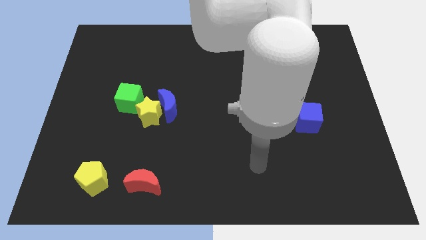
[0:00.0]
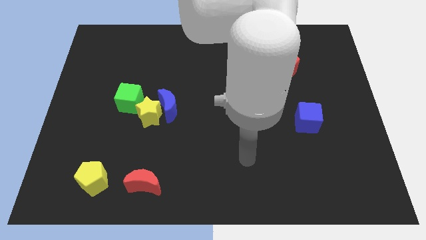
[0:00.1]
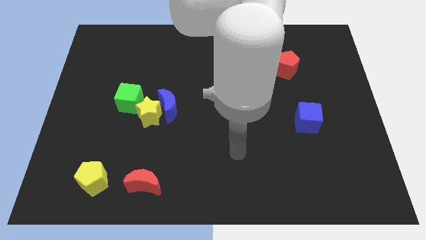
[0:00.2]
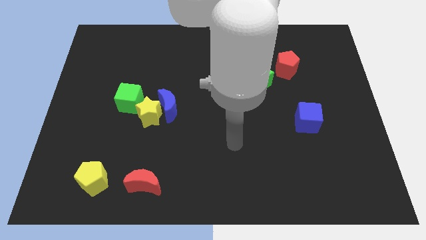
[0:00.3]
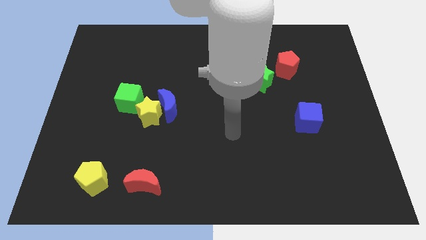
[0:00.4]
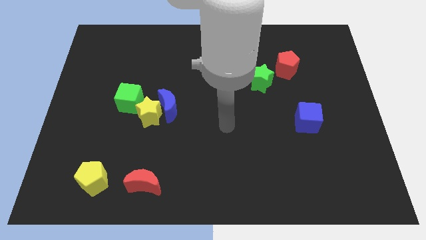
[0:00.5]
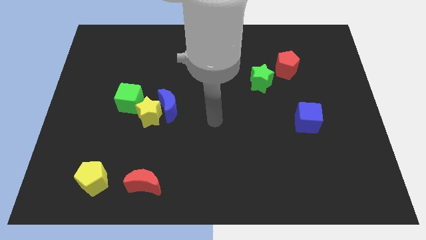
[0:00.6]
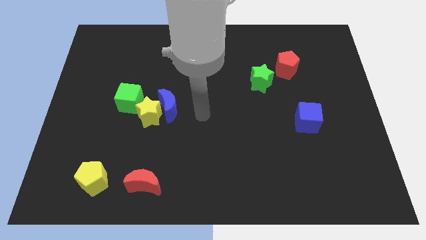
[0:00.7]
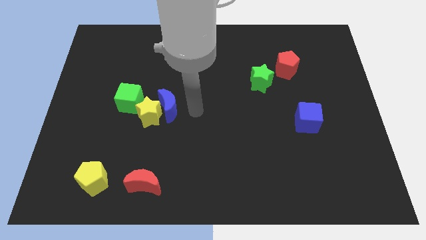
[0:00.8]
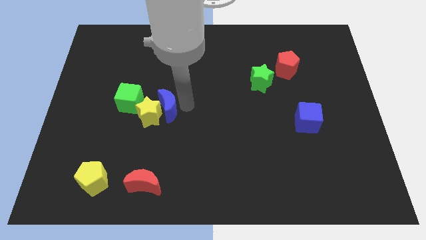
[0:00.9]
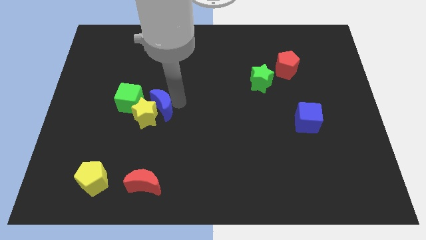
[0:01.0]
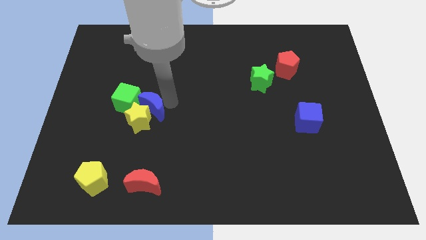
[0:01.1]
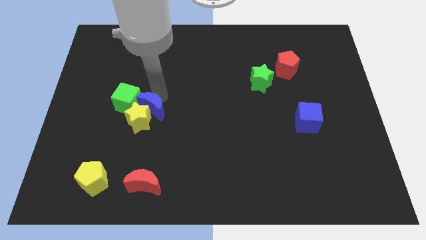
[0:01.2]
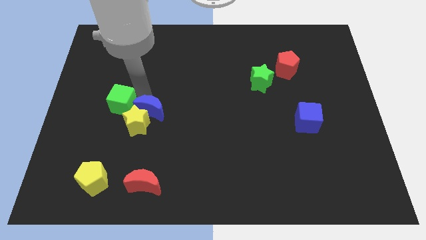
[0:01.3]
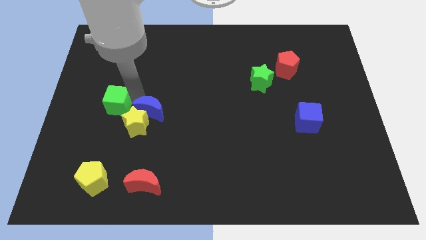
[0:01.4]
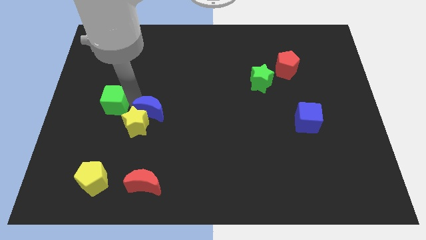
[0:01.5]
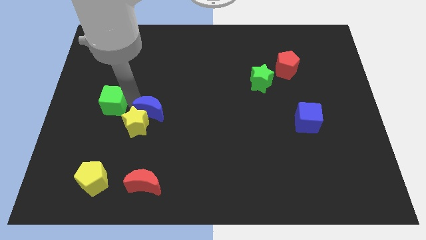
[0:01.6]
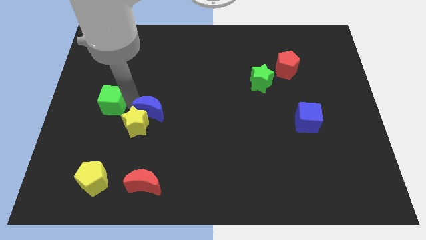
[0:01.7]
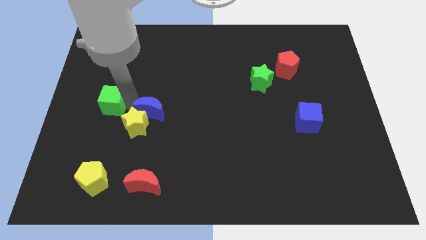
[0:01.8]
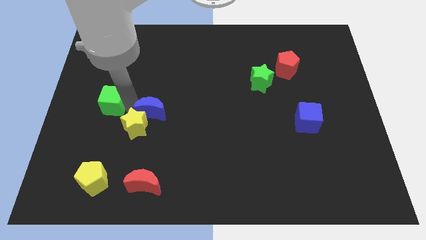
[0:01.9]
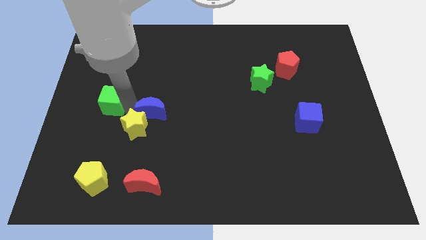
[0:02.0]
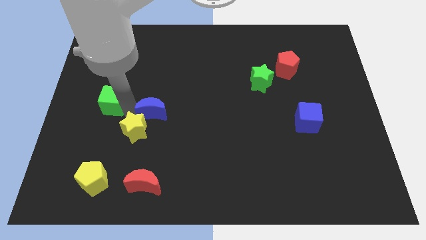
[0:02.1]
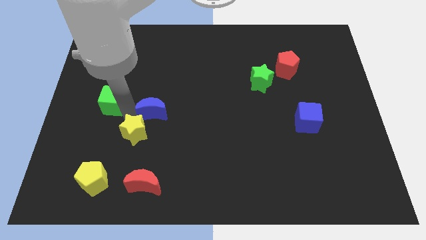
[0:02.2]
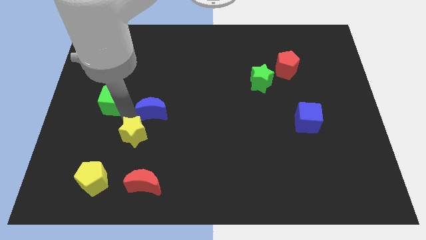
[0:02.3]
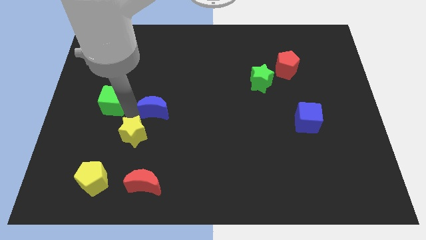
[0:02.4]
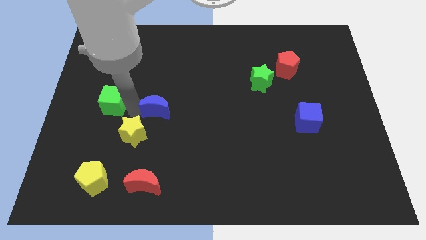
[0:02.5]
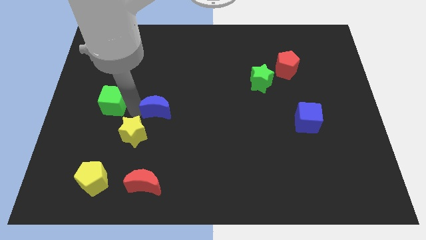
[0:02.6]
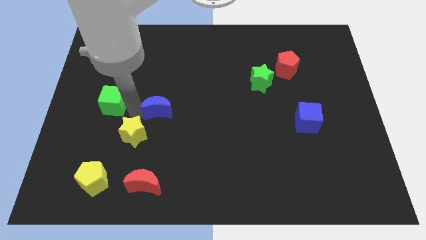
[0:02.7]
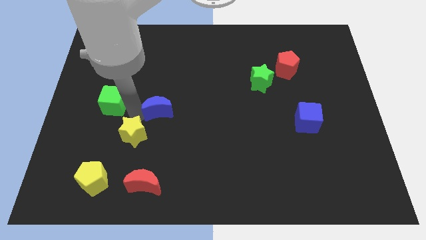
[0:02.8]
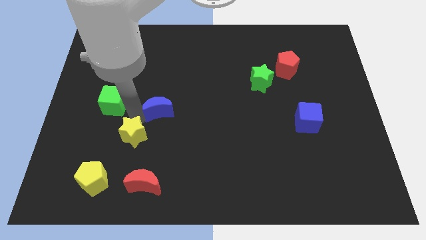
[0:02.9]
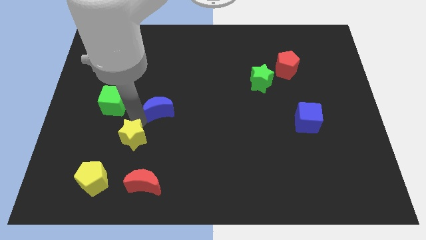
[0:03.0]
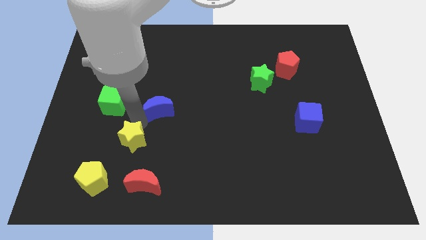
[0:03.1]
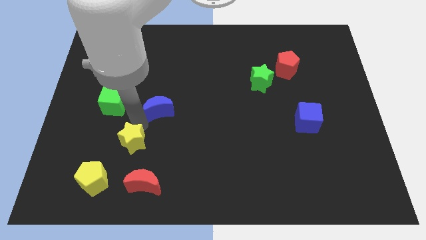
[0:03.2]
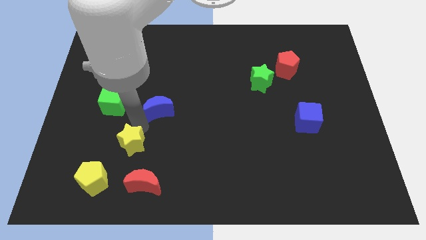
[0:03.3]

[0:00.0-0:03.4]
move the yellow star away from the blue moon and green cube

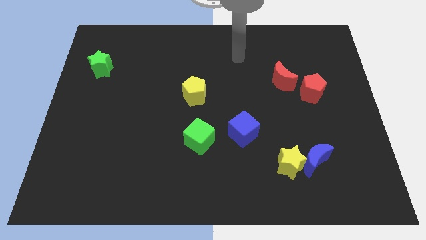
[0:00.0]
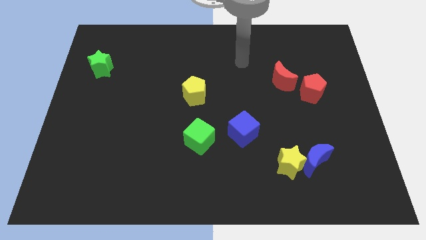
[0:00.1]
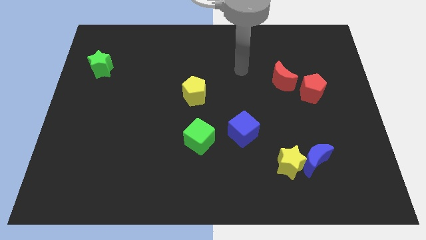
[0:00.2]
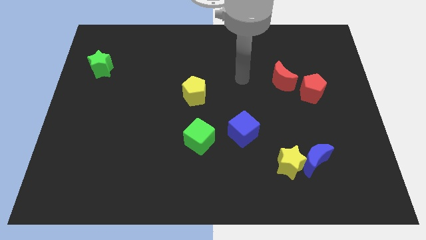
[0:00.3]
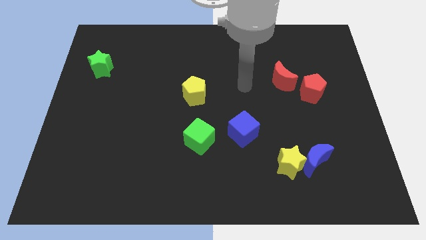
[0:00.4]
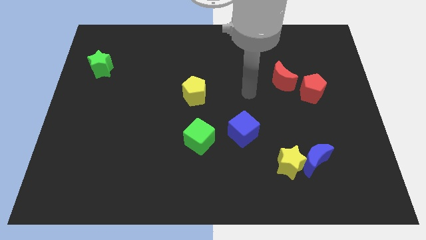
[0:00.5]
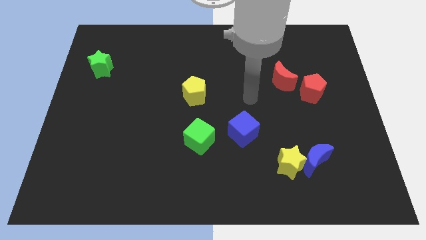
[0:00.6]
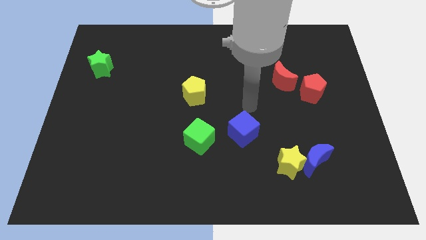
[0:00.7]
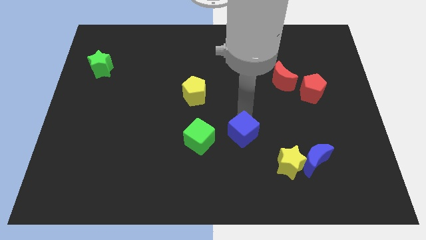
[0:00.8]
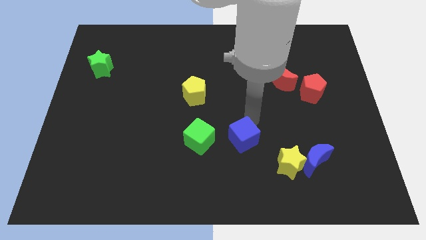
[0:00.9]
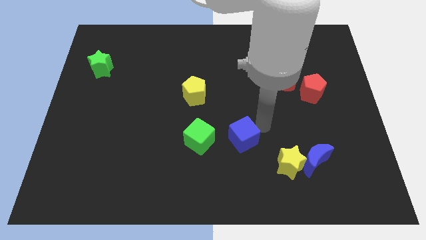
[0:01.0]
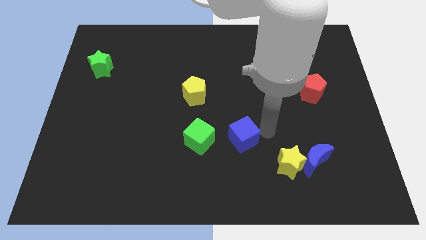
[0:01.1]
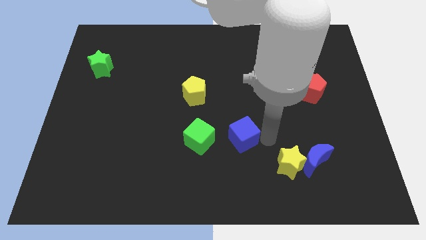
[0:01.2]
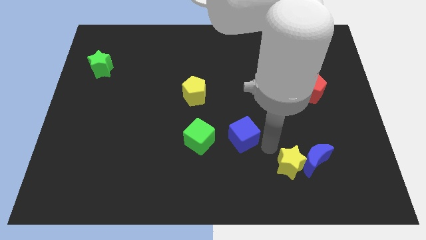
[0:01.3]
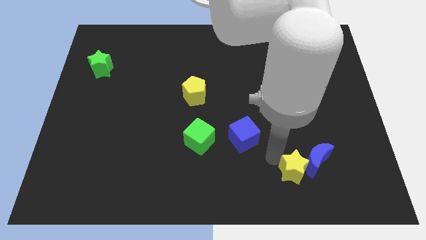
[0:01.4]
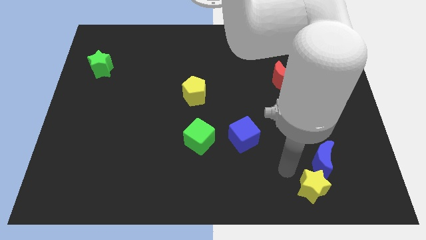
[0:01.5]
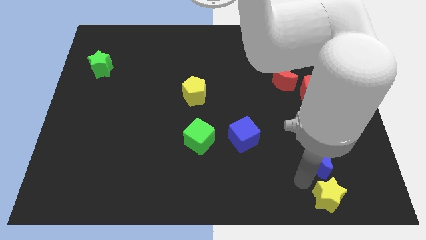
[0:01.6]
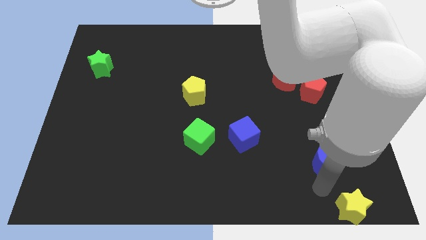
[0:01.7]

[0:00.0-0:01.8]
separate the blue moon from the yellow star

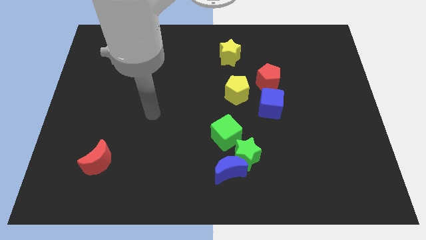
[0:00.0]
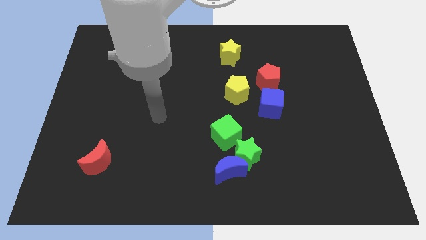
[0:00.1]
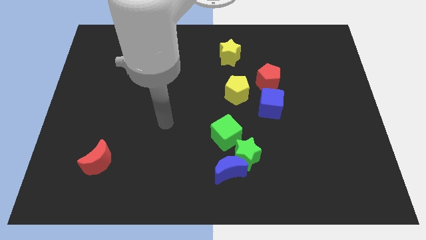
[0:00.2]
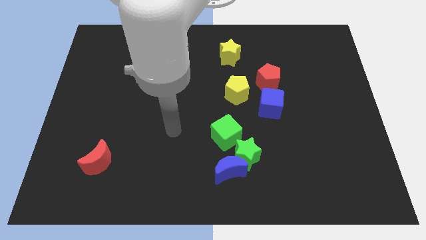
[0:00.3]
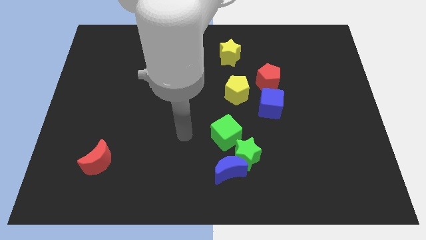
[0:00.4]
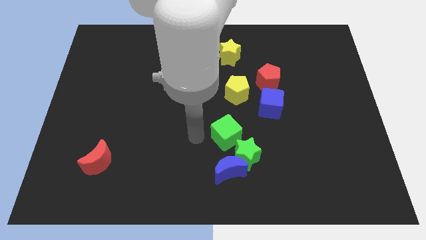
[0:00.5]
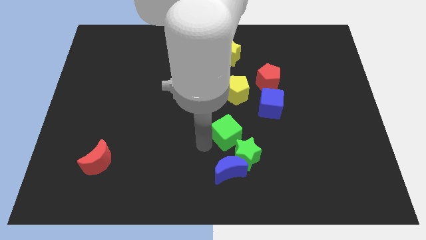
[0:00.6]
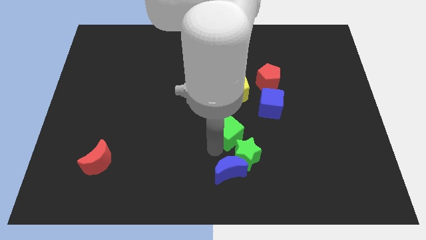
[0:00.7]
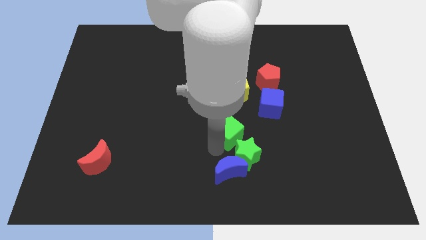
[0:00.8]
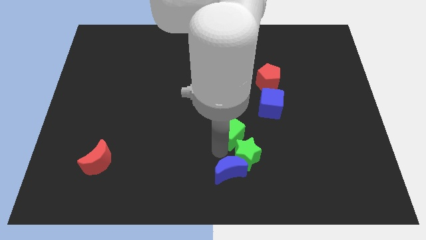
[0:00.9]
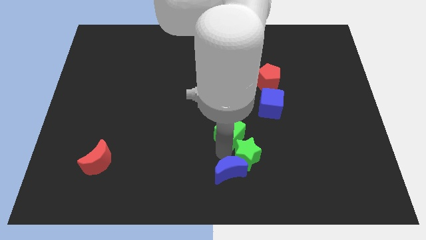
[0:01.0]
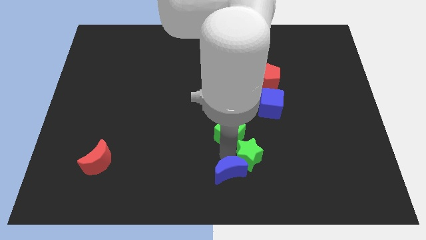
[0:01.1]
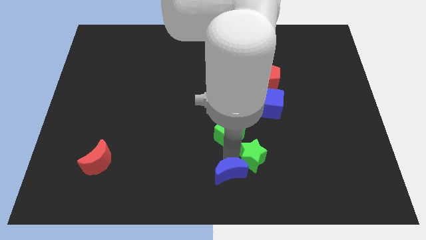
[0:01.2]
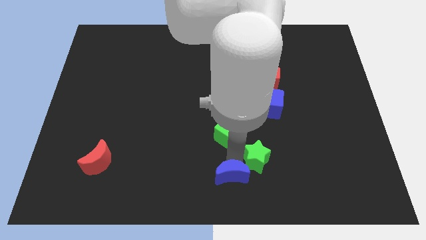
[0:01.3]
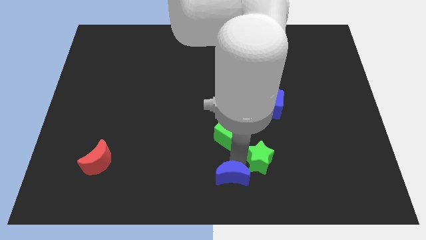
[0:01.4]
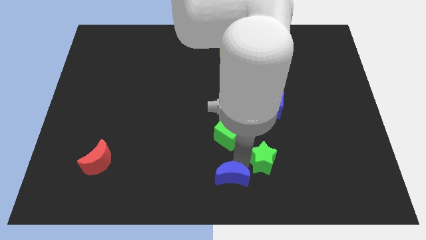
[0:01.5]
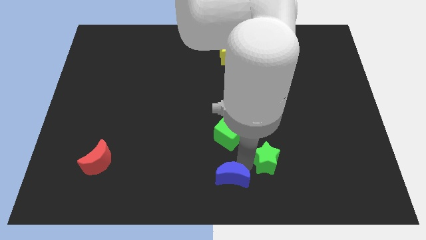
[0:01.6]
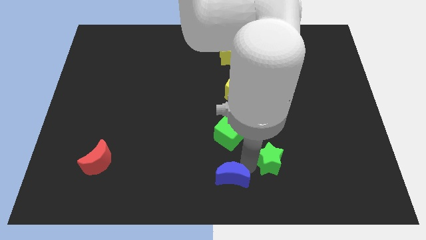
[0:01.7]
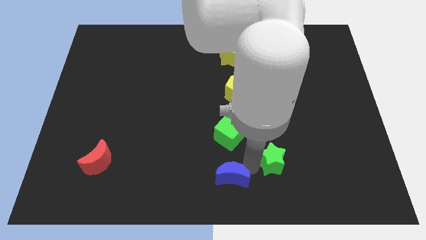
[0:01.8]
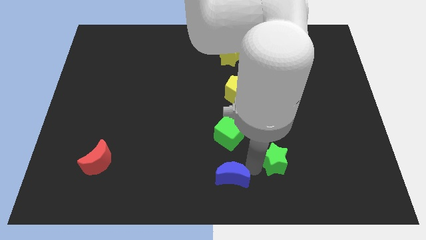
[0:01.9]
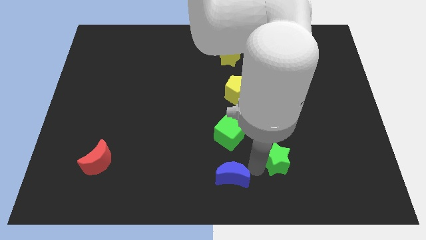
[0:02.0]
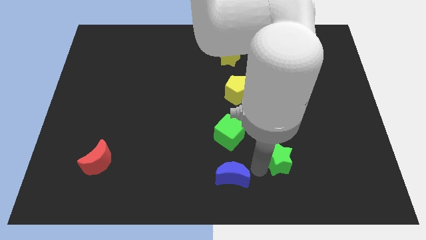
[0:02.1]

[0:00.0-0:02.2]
separate the green star from the blue moon and green cube

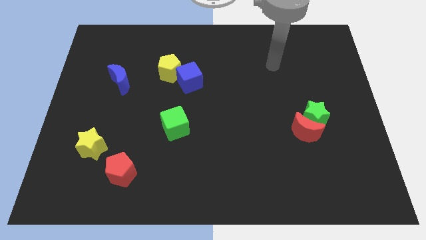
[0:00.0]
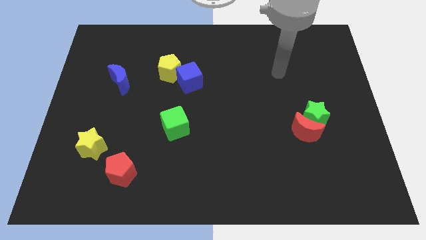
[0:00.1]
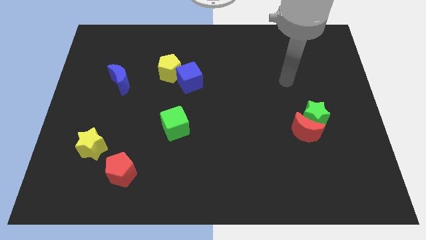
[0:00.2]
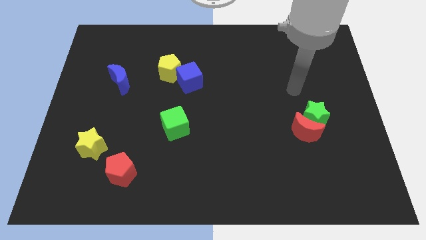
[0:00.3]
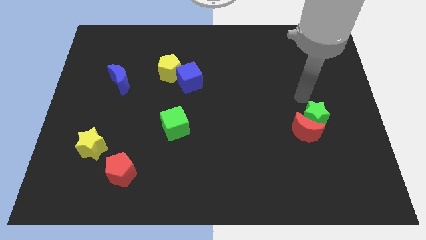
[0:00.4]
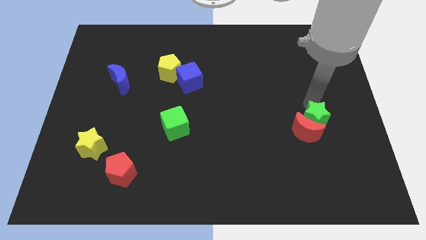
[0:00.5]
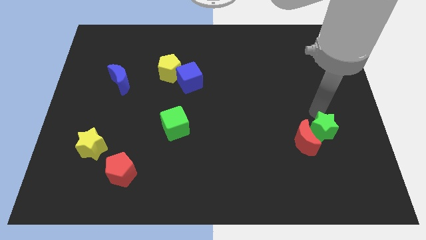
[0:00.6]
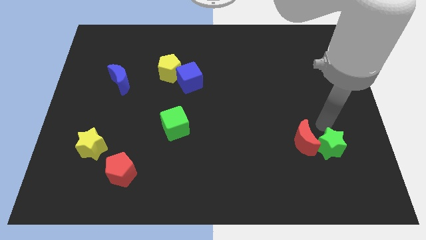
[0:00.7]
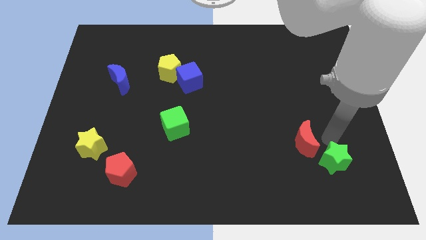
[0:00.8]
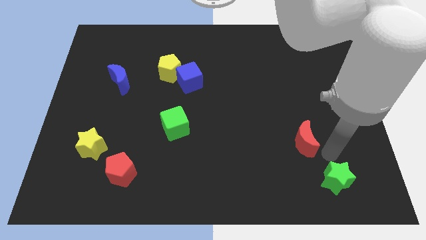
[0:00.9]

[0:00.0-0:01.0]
separate the red moon from the green star

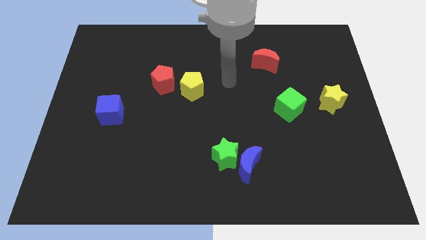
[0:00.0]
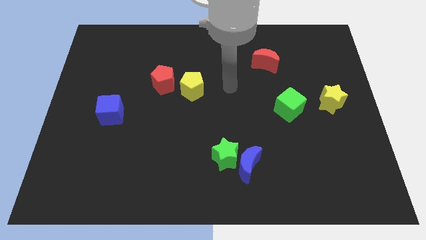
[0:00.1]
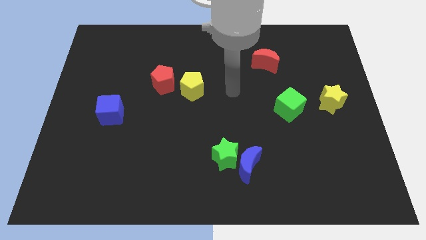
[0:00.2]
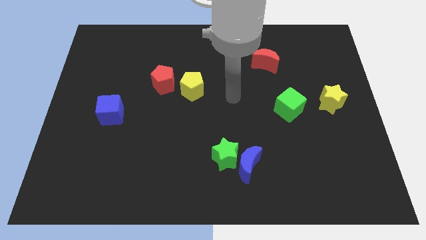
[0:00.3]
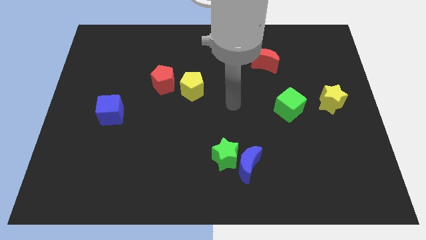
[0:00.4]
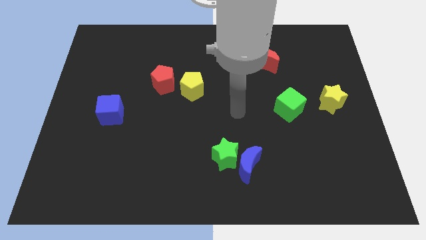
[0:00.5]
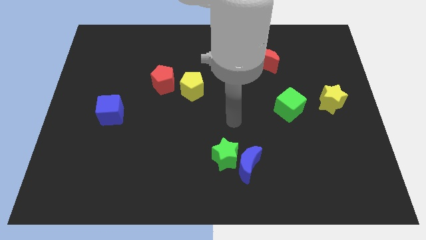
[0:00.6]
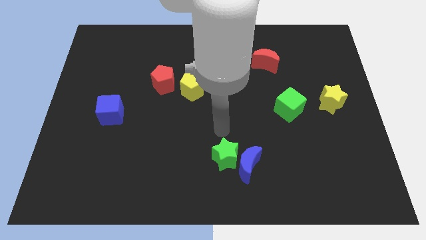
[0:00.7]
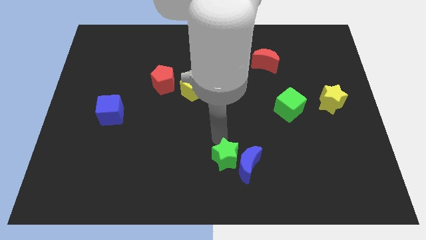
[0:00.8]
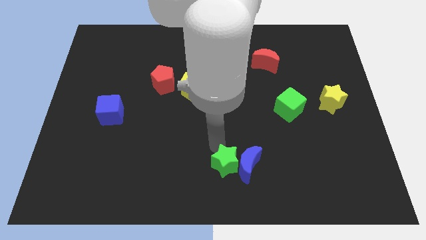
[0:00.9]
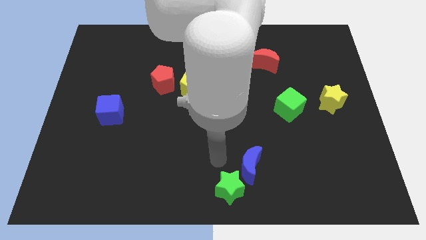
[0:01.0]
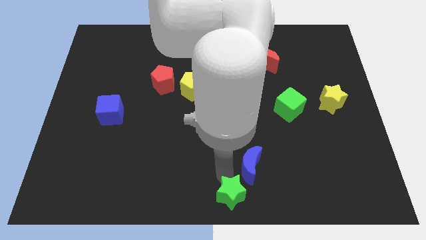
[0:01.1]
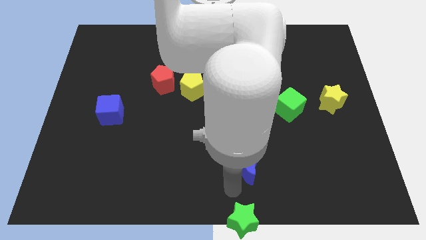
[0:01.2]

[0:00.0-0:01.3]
move the blue moon away from the green star
